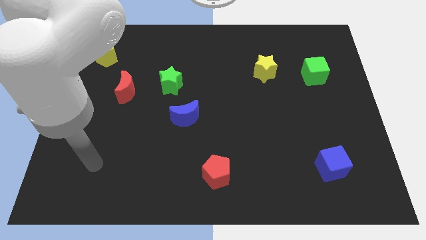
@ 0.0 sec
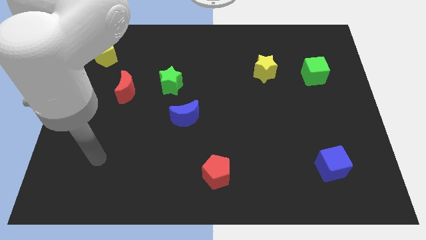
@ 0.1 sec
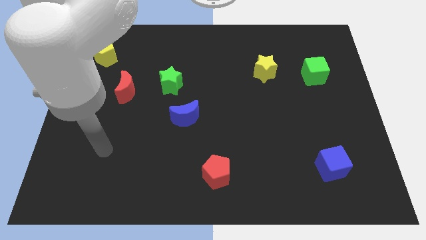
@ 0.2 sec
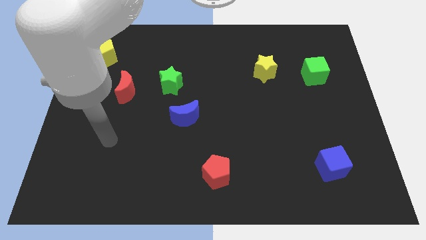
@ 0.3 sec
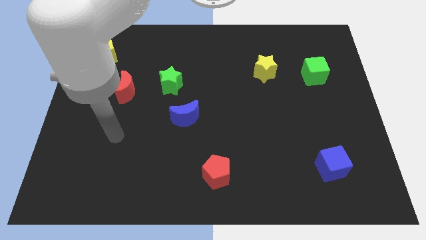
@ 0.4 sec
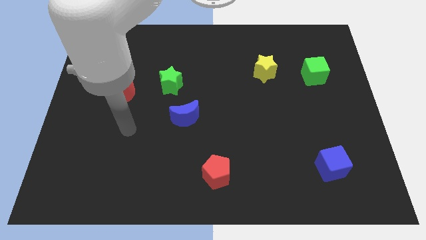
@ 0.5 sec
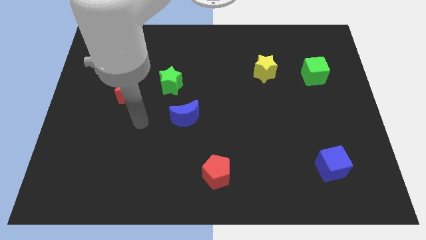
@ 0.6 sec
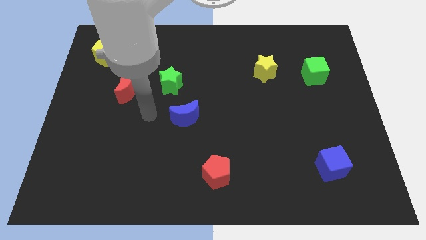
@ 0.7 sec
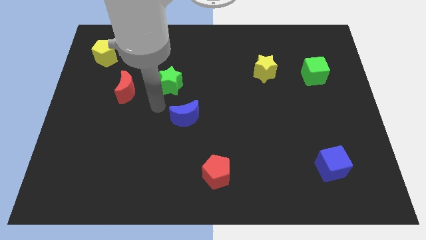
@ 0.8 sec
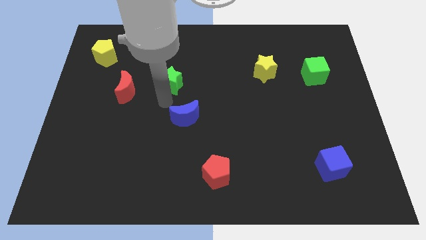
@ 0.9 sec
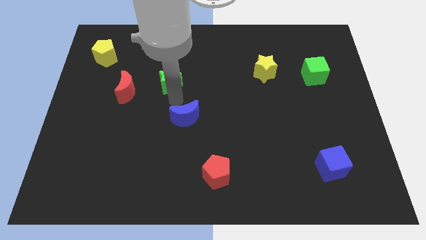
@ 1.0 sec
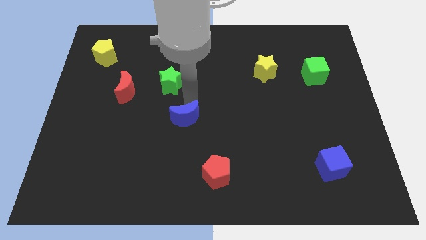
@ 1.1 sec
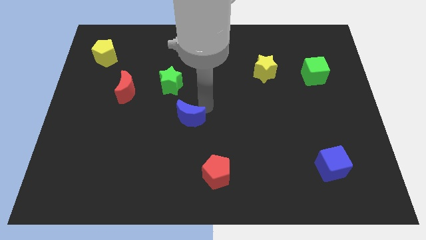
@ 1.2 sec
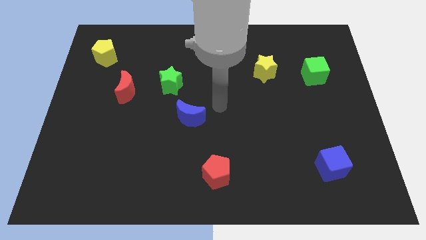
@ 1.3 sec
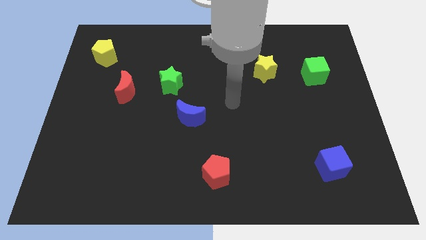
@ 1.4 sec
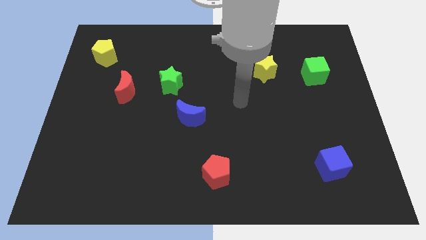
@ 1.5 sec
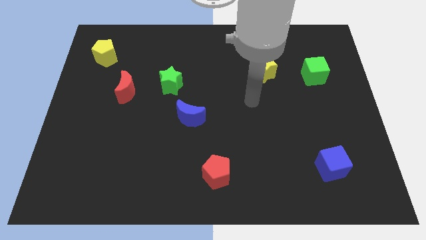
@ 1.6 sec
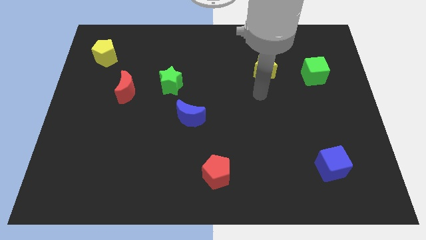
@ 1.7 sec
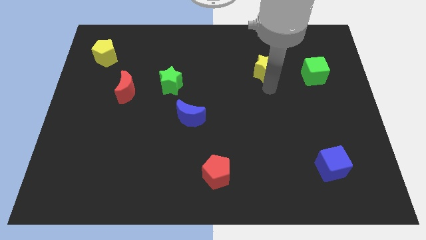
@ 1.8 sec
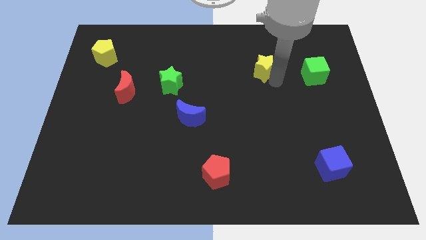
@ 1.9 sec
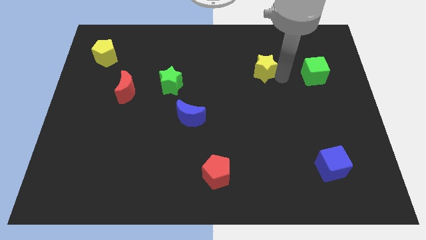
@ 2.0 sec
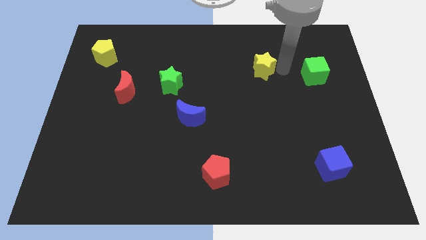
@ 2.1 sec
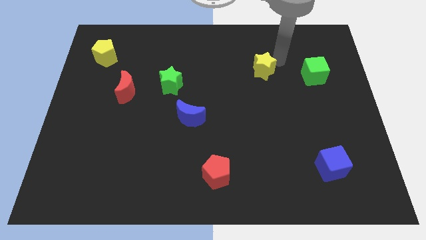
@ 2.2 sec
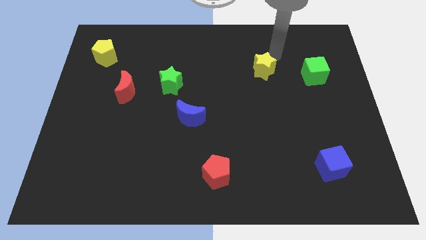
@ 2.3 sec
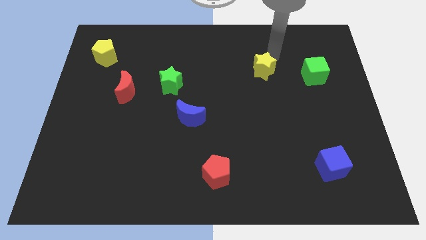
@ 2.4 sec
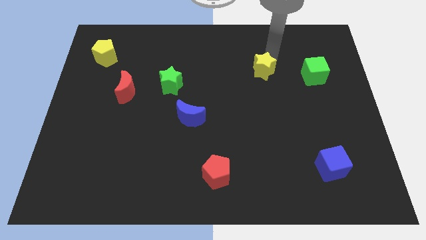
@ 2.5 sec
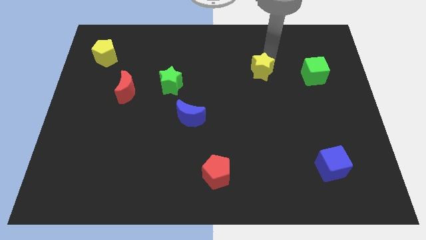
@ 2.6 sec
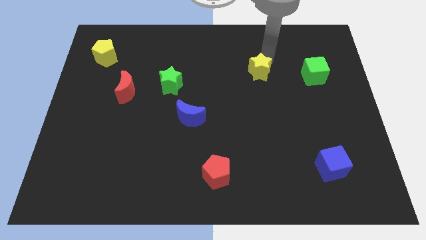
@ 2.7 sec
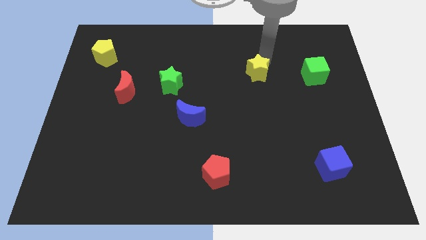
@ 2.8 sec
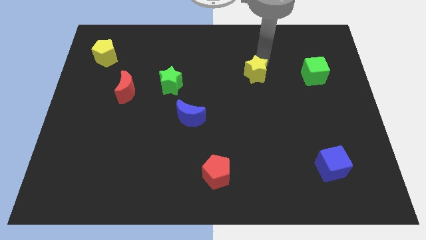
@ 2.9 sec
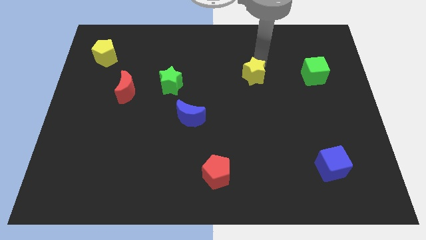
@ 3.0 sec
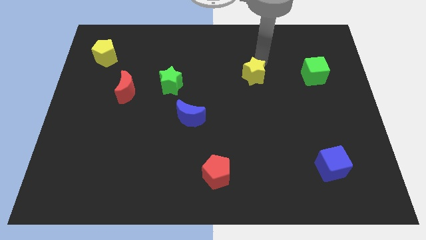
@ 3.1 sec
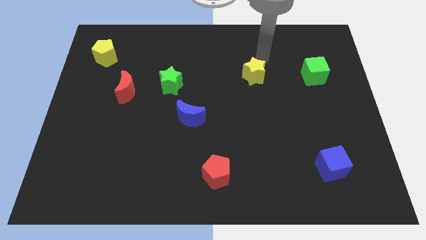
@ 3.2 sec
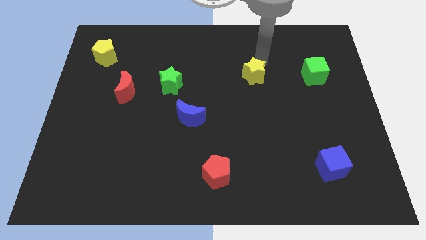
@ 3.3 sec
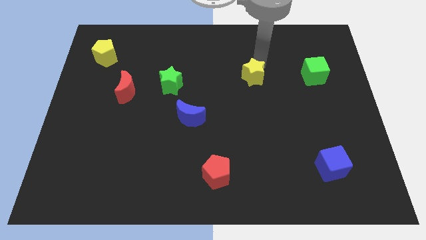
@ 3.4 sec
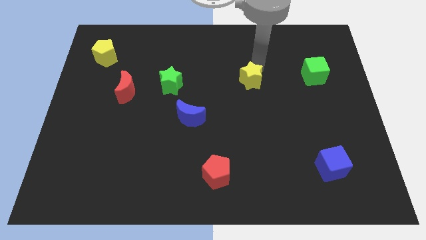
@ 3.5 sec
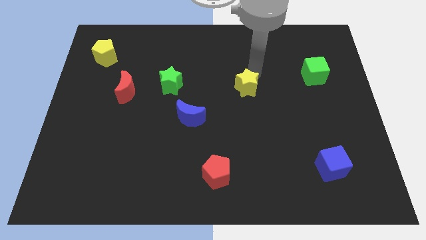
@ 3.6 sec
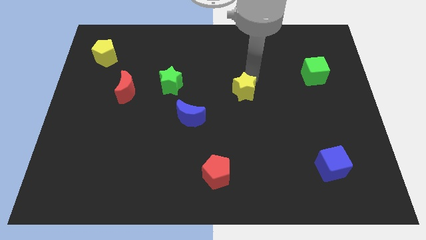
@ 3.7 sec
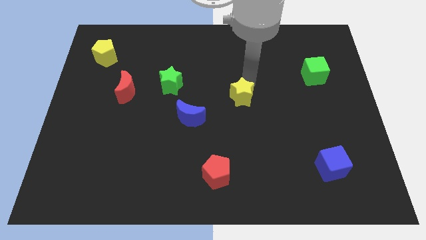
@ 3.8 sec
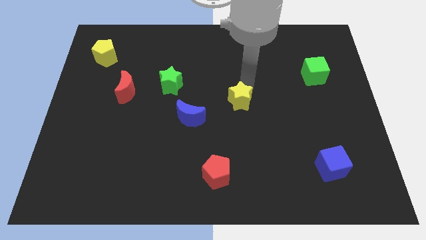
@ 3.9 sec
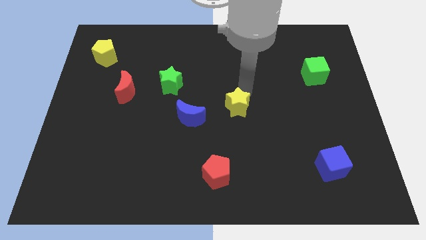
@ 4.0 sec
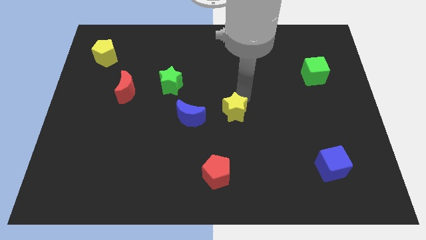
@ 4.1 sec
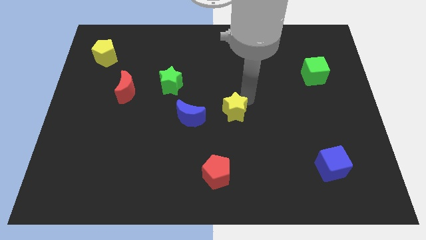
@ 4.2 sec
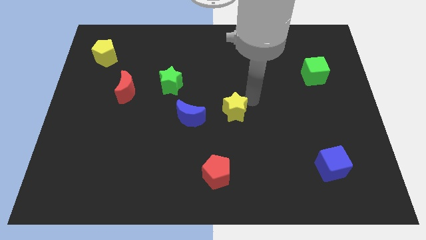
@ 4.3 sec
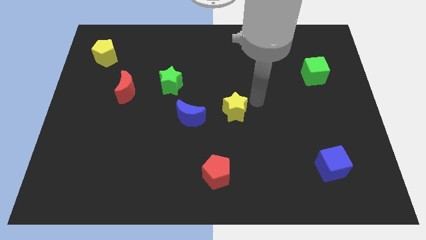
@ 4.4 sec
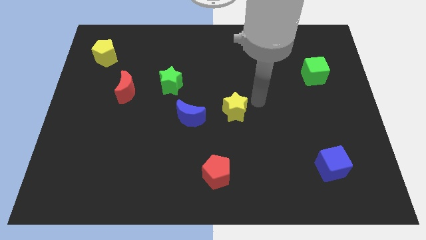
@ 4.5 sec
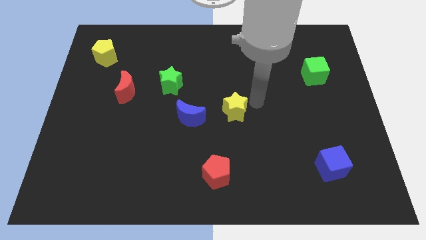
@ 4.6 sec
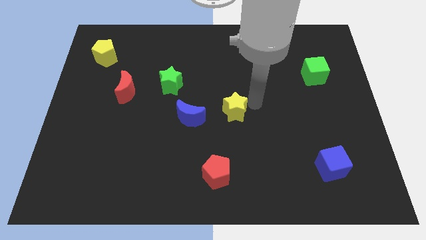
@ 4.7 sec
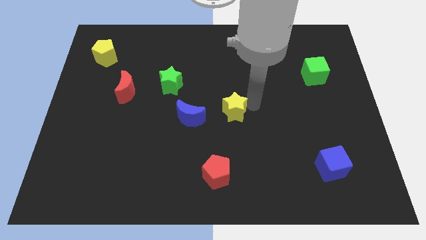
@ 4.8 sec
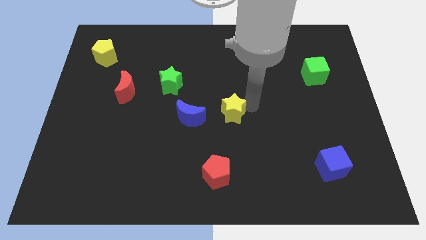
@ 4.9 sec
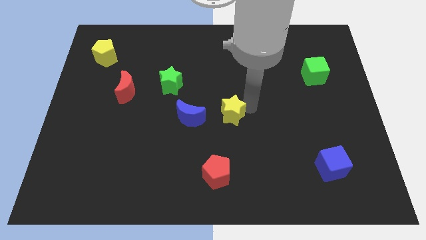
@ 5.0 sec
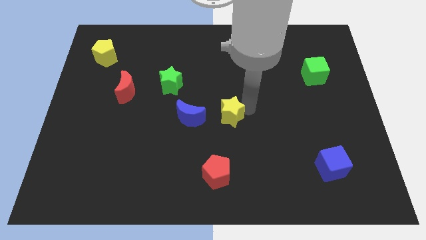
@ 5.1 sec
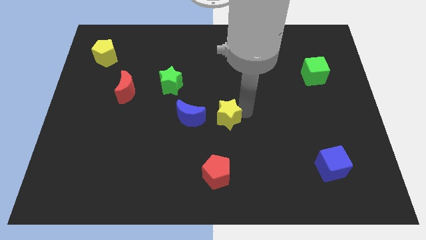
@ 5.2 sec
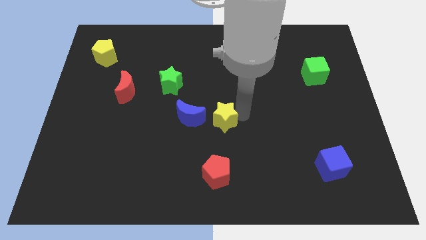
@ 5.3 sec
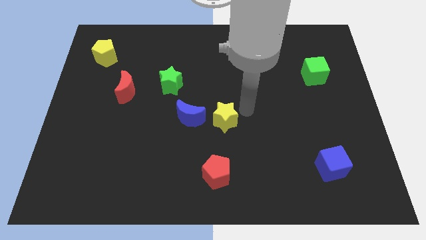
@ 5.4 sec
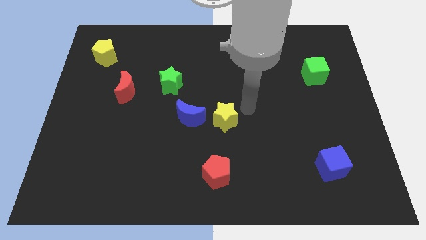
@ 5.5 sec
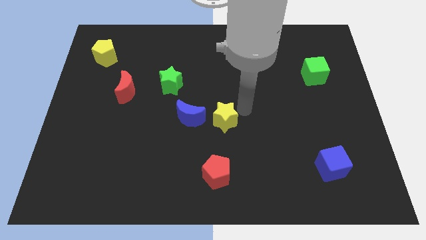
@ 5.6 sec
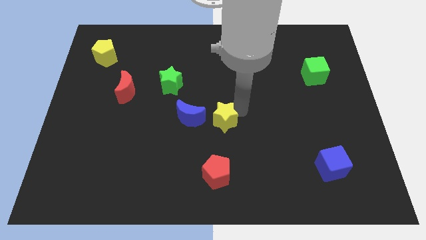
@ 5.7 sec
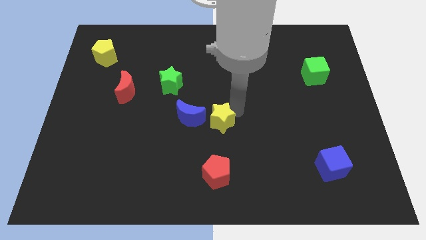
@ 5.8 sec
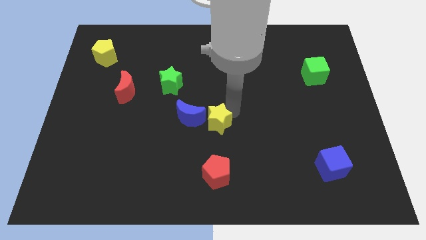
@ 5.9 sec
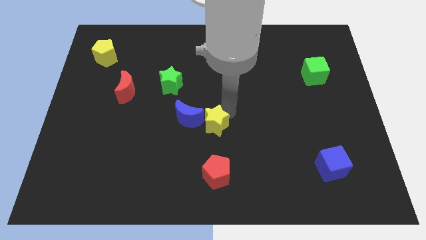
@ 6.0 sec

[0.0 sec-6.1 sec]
slide the yellow star diagonally down and left

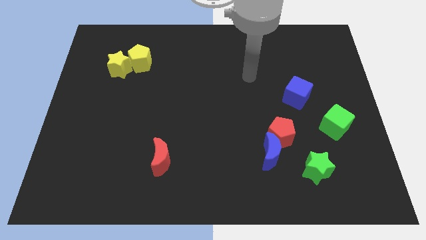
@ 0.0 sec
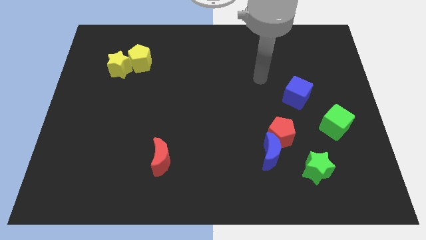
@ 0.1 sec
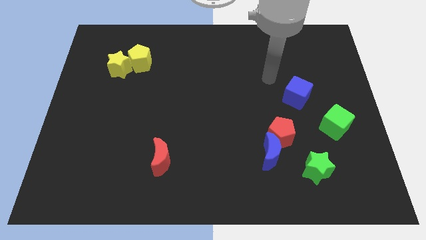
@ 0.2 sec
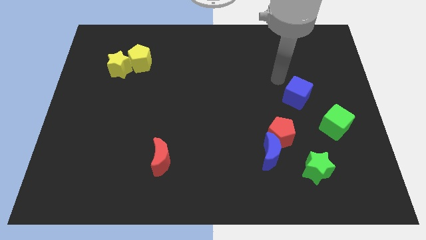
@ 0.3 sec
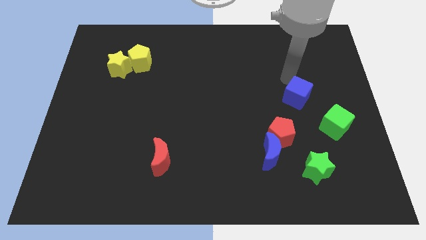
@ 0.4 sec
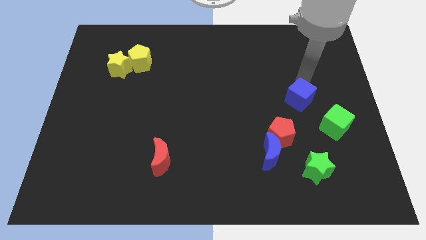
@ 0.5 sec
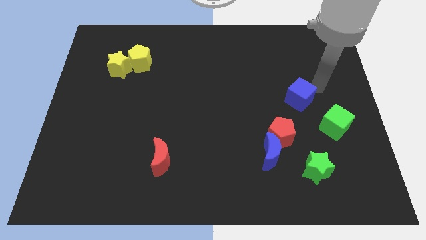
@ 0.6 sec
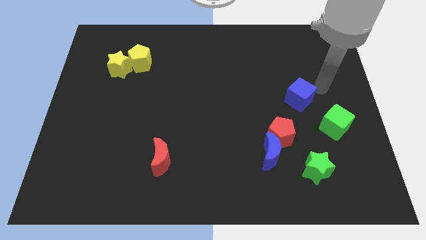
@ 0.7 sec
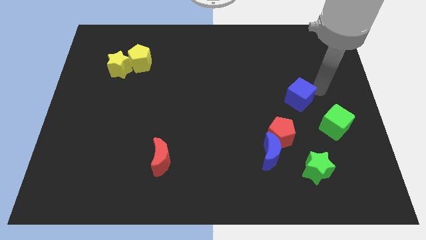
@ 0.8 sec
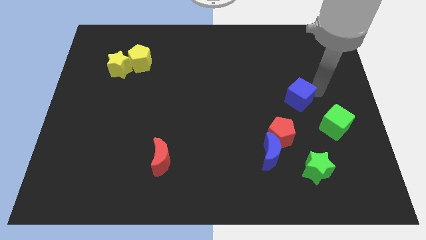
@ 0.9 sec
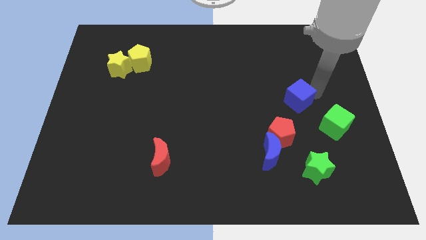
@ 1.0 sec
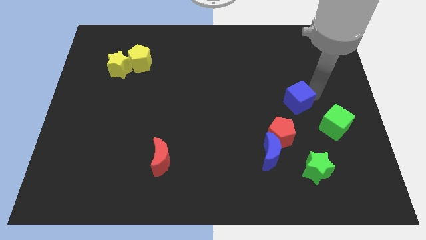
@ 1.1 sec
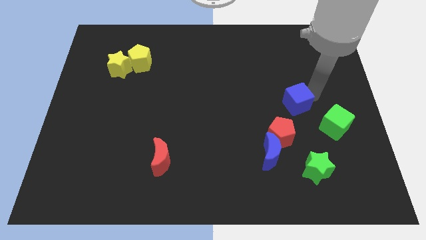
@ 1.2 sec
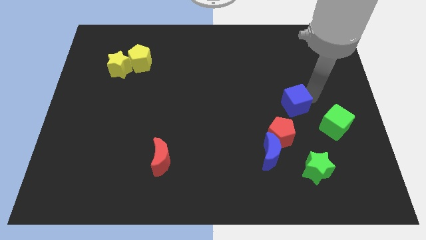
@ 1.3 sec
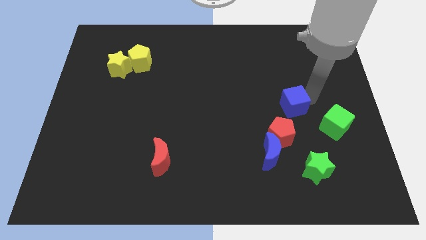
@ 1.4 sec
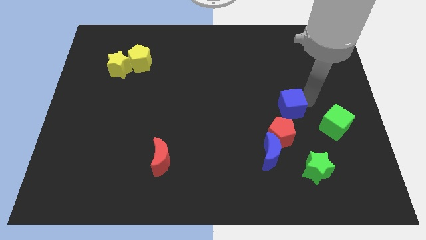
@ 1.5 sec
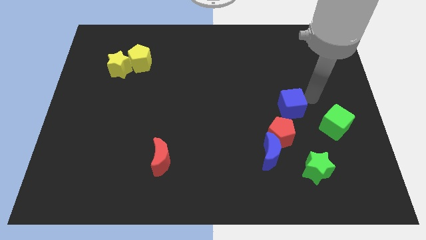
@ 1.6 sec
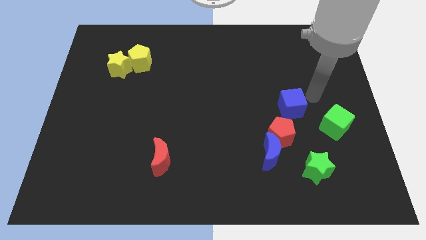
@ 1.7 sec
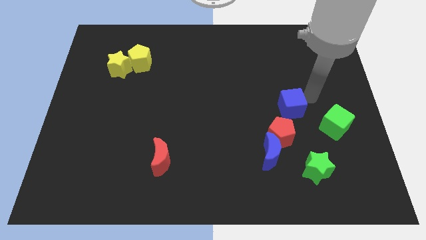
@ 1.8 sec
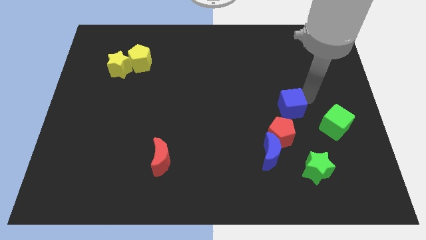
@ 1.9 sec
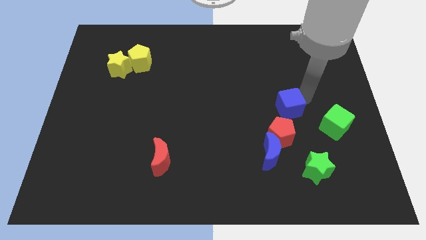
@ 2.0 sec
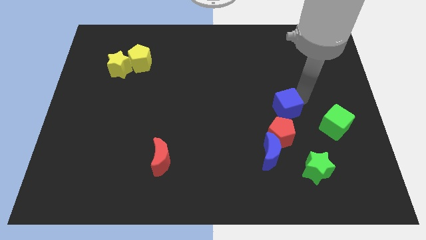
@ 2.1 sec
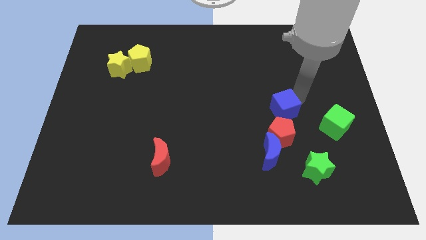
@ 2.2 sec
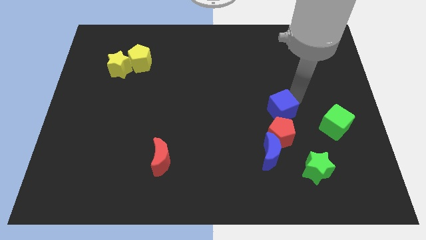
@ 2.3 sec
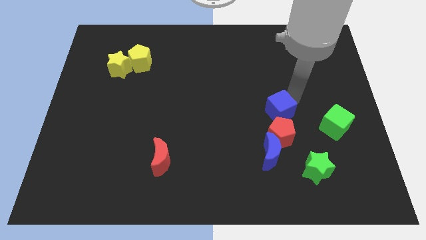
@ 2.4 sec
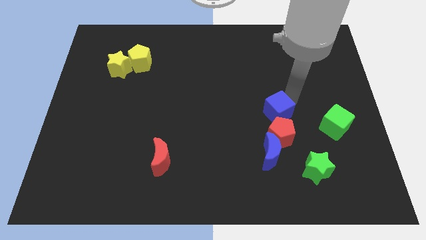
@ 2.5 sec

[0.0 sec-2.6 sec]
move the blue cube down and to the left diagonally somewhat
